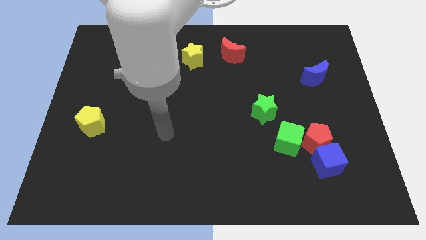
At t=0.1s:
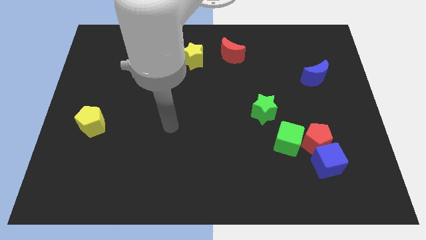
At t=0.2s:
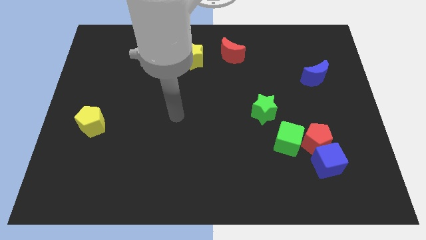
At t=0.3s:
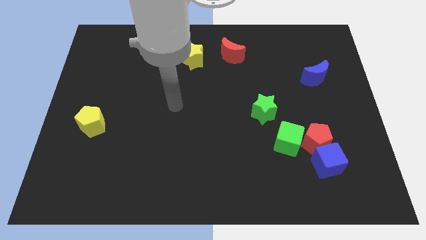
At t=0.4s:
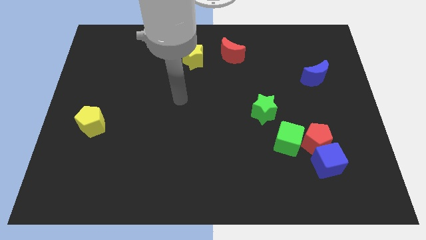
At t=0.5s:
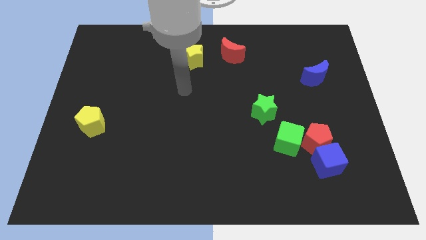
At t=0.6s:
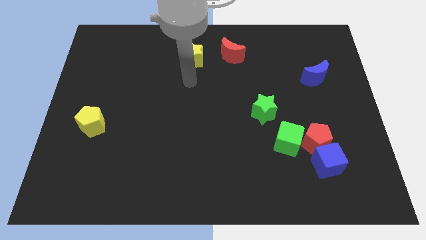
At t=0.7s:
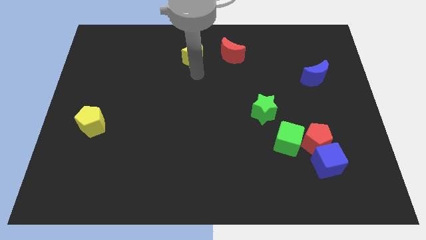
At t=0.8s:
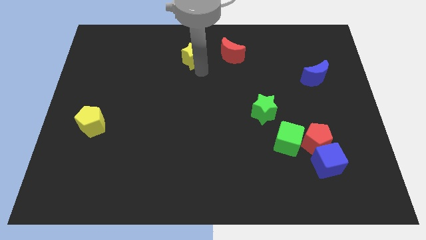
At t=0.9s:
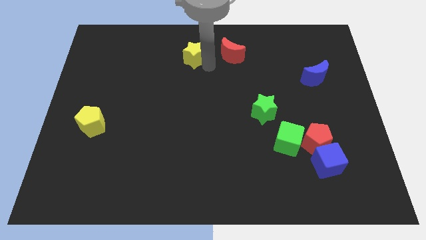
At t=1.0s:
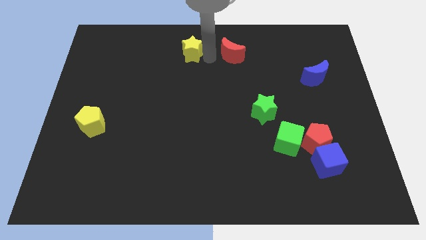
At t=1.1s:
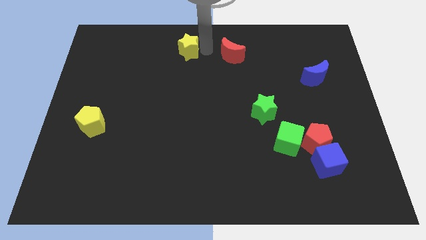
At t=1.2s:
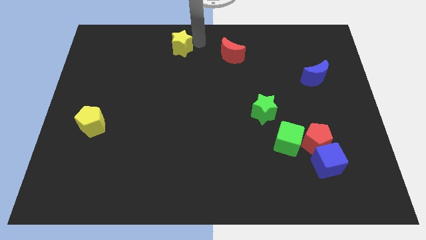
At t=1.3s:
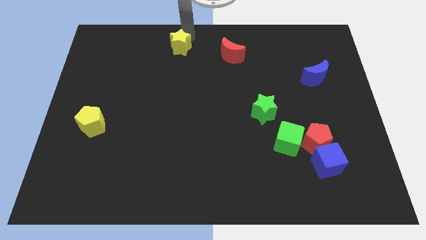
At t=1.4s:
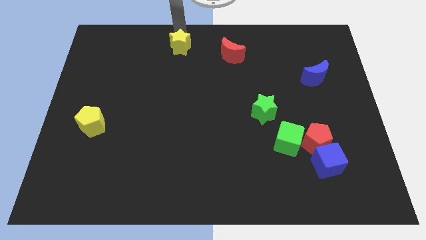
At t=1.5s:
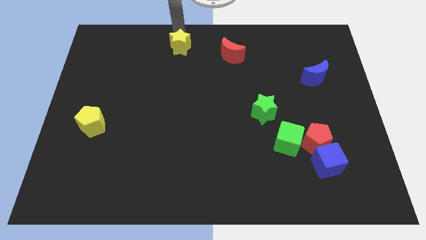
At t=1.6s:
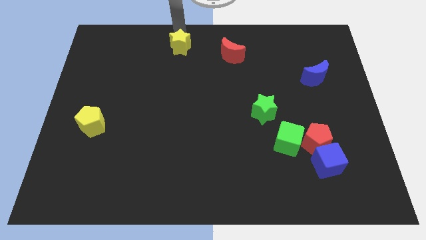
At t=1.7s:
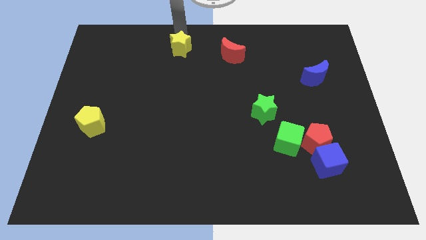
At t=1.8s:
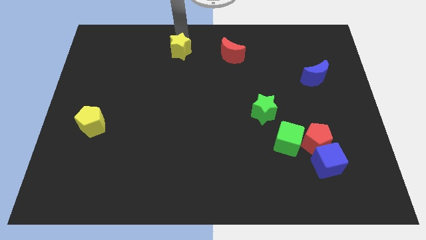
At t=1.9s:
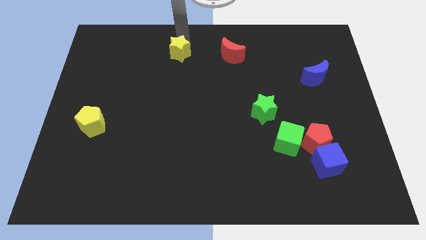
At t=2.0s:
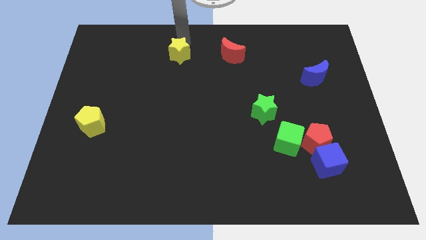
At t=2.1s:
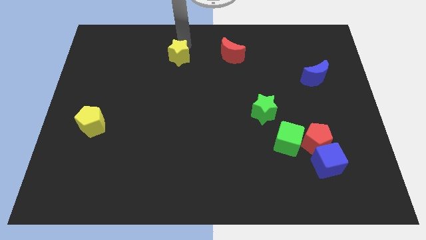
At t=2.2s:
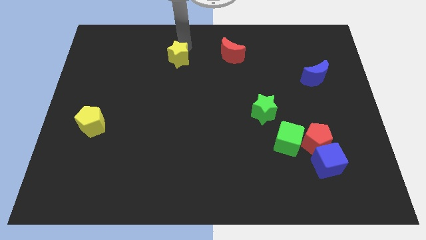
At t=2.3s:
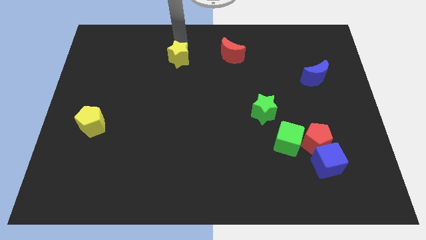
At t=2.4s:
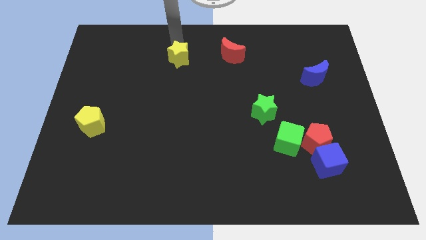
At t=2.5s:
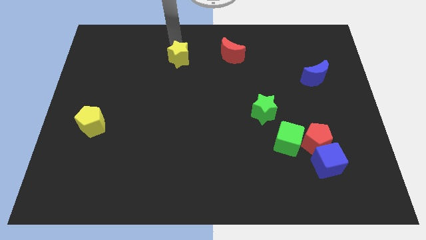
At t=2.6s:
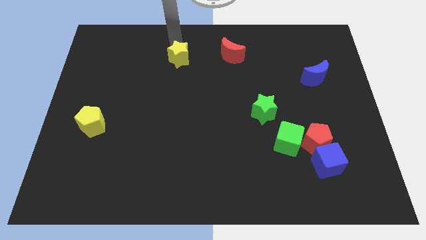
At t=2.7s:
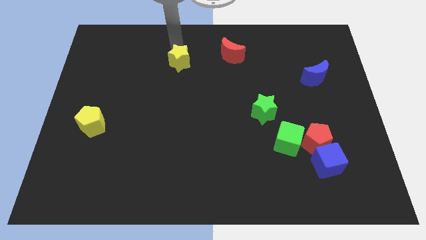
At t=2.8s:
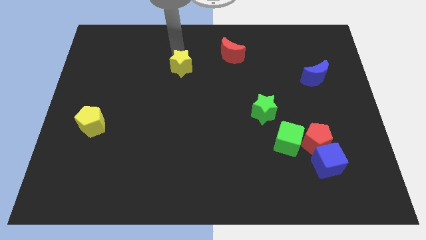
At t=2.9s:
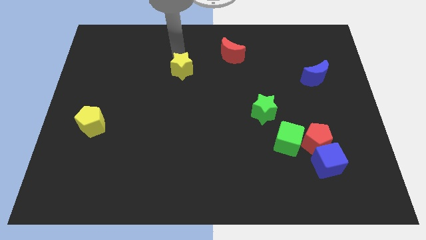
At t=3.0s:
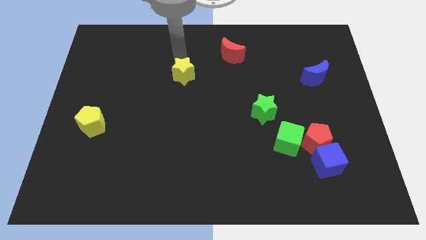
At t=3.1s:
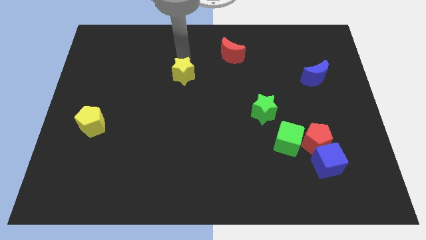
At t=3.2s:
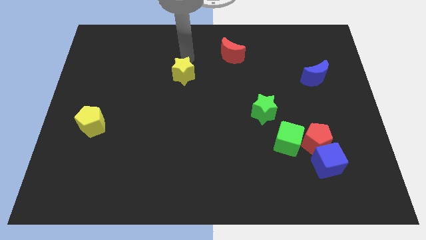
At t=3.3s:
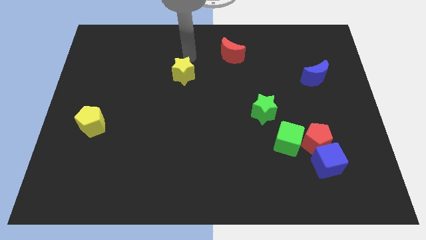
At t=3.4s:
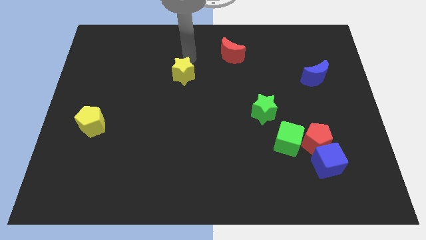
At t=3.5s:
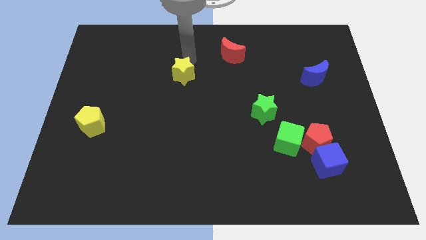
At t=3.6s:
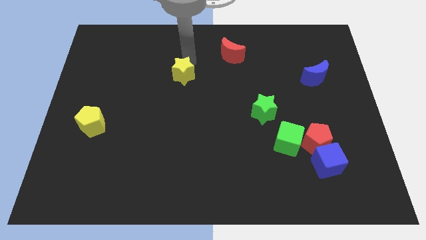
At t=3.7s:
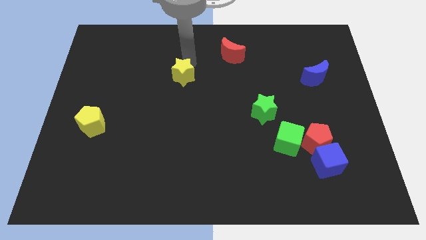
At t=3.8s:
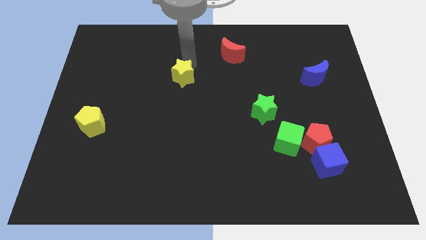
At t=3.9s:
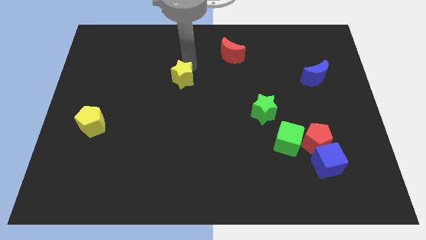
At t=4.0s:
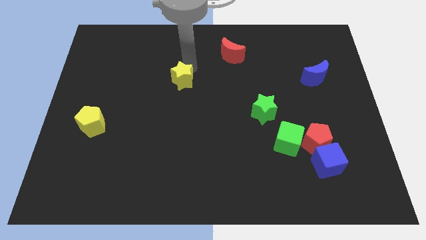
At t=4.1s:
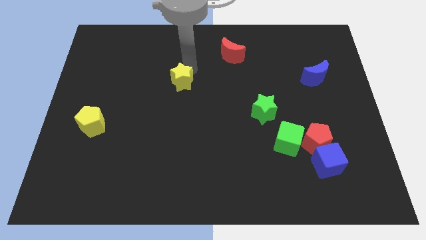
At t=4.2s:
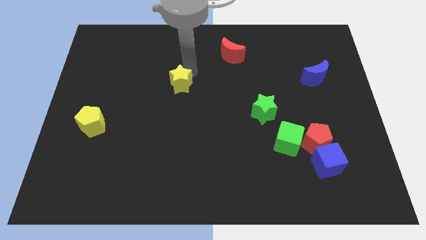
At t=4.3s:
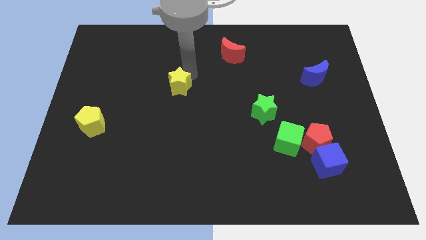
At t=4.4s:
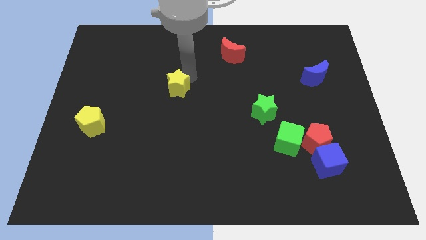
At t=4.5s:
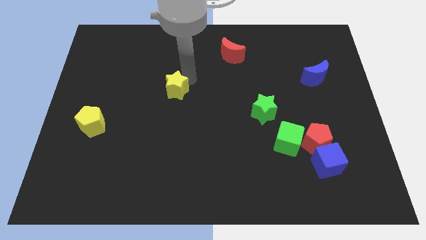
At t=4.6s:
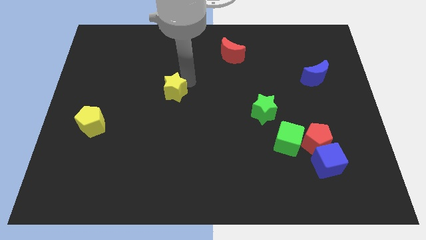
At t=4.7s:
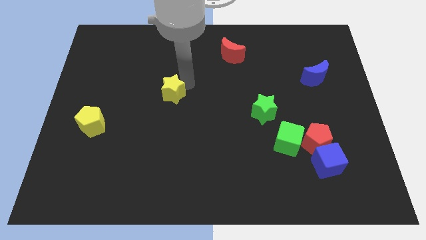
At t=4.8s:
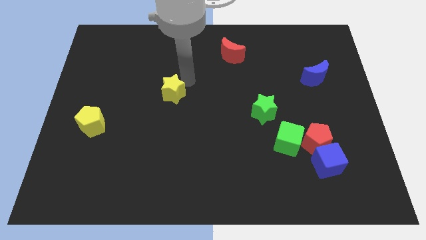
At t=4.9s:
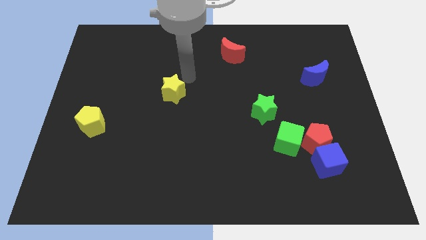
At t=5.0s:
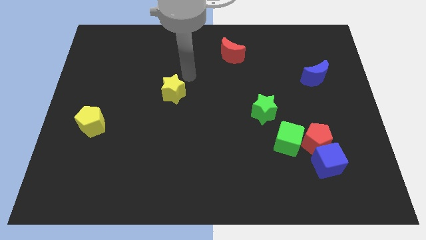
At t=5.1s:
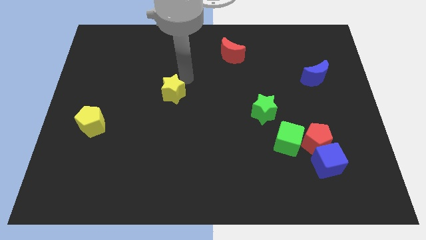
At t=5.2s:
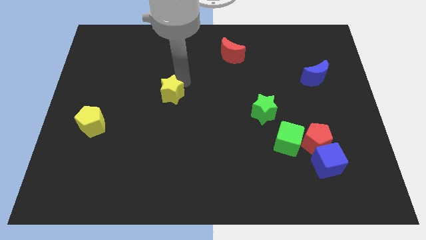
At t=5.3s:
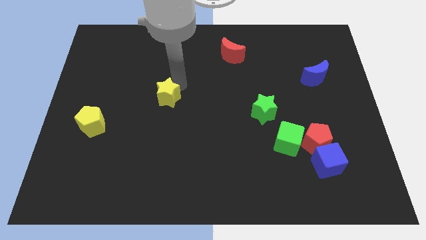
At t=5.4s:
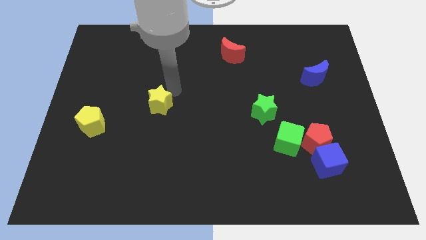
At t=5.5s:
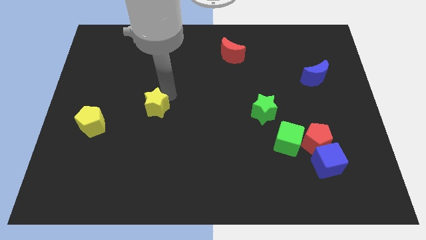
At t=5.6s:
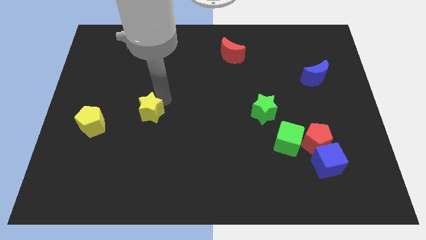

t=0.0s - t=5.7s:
move the yellow star to the right of the yellow pentagon

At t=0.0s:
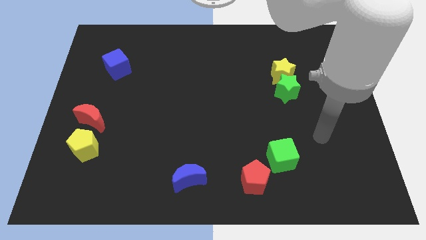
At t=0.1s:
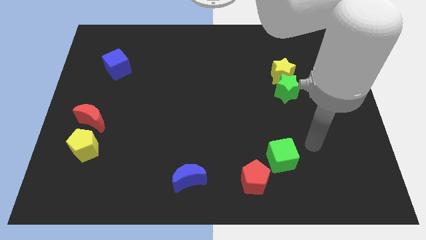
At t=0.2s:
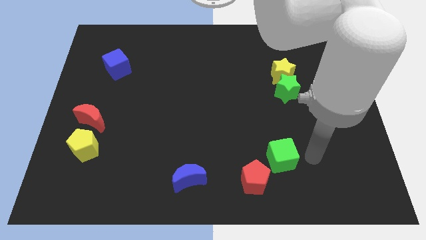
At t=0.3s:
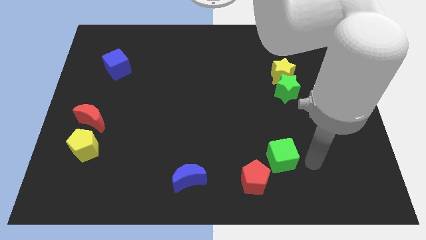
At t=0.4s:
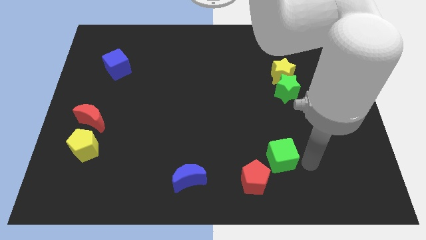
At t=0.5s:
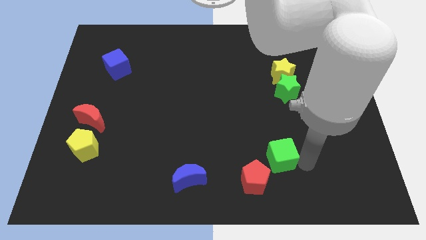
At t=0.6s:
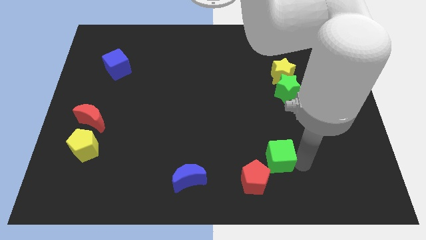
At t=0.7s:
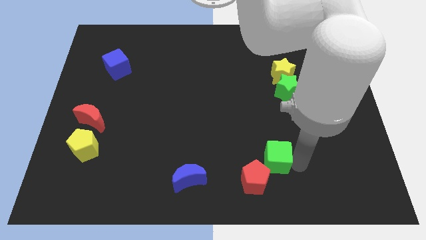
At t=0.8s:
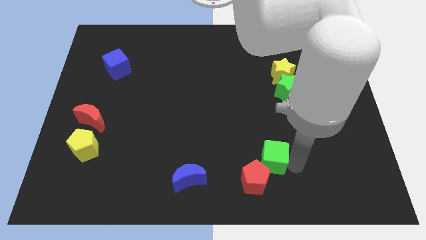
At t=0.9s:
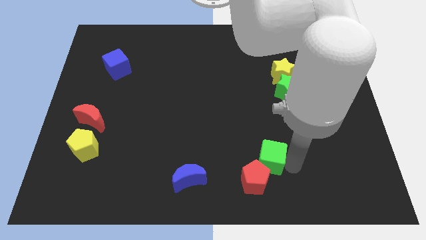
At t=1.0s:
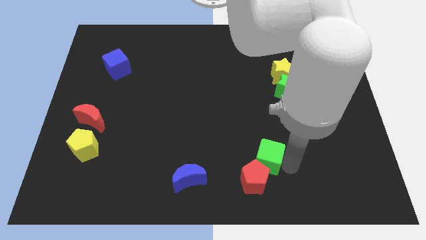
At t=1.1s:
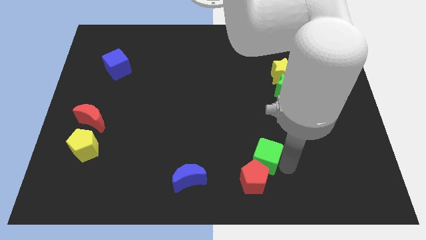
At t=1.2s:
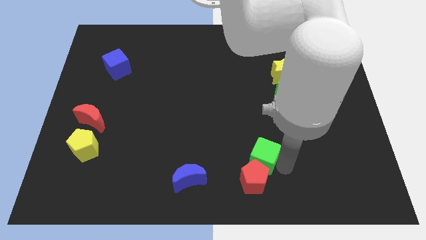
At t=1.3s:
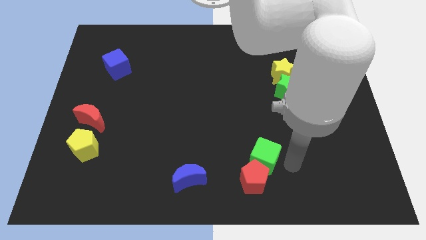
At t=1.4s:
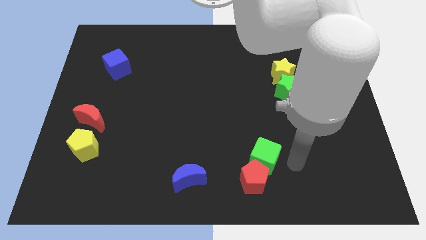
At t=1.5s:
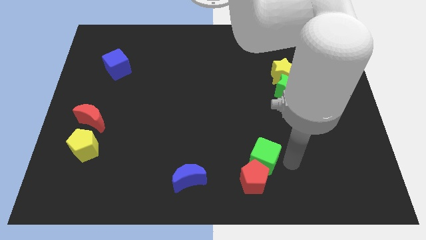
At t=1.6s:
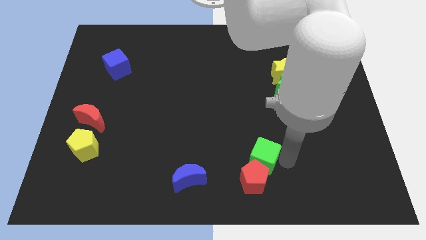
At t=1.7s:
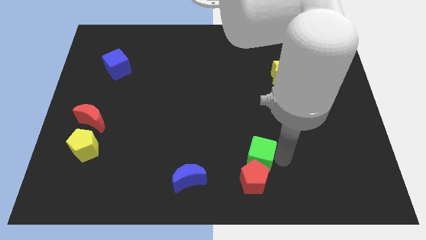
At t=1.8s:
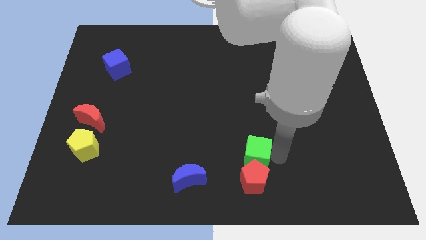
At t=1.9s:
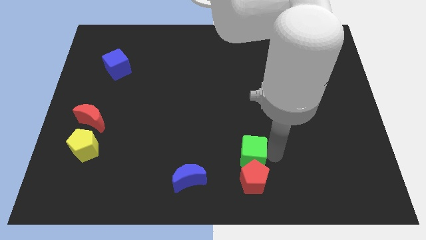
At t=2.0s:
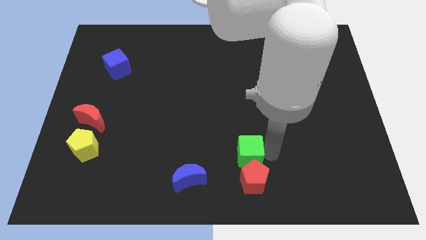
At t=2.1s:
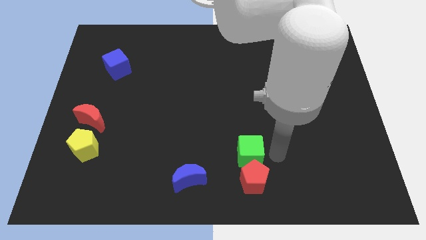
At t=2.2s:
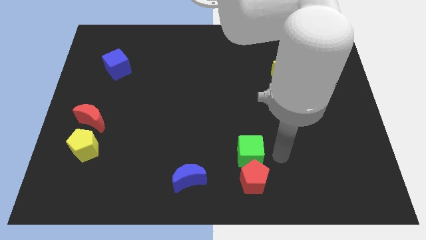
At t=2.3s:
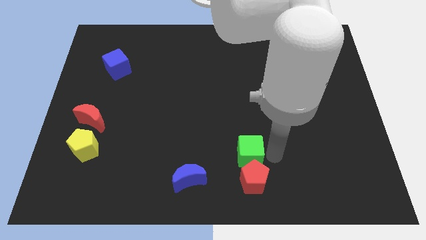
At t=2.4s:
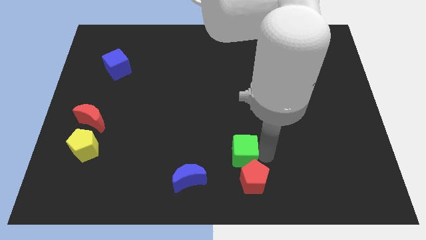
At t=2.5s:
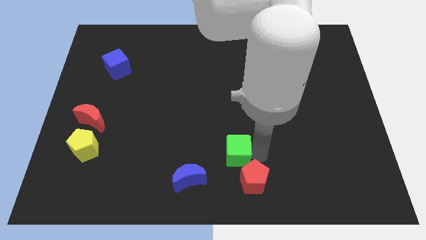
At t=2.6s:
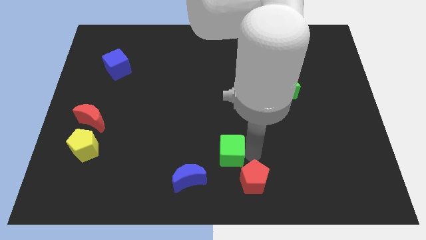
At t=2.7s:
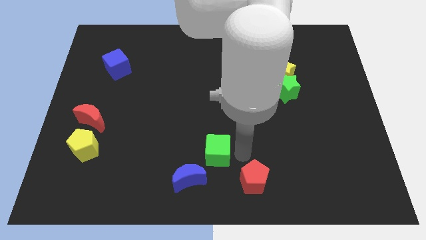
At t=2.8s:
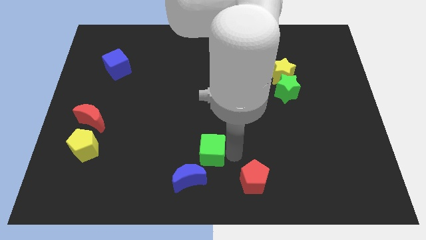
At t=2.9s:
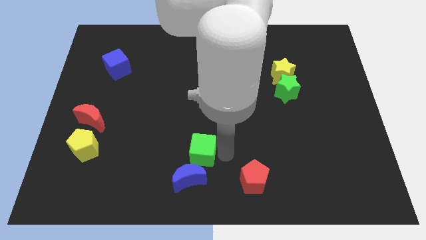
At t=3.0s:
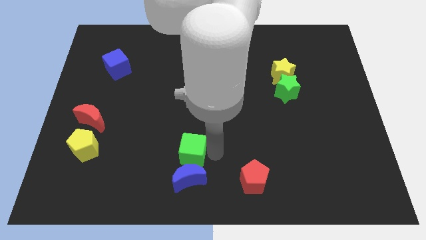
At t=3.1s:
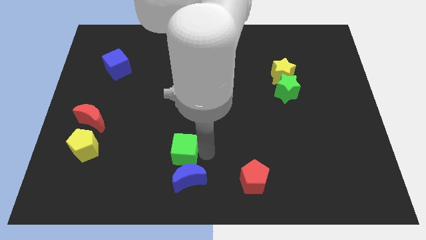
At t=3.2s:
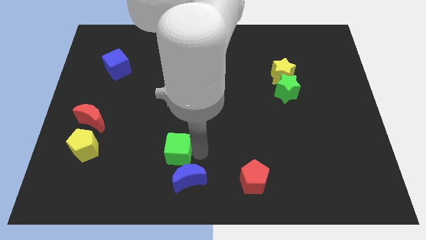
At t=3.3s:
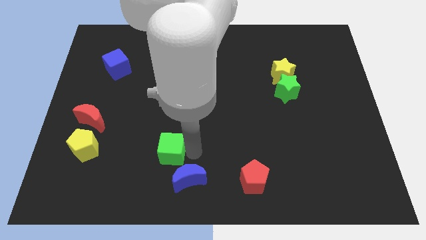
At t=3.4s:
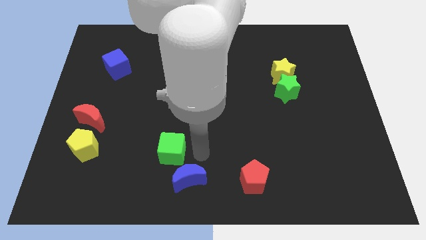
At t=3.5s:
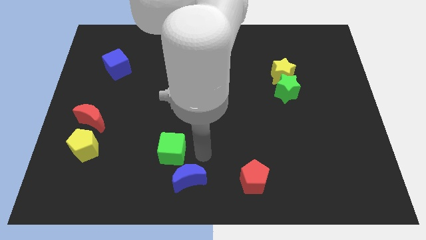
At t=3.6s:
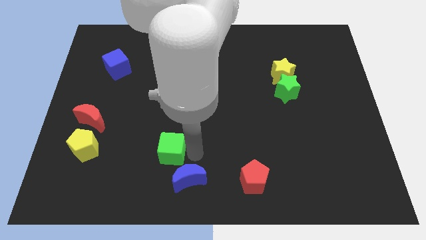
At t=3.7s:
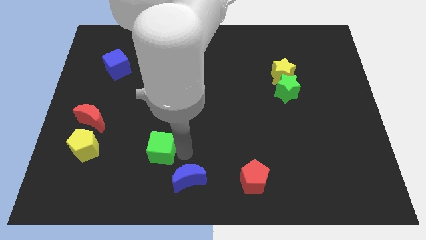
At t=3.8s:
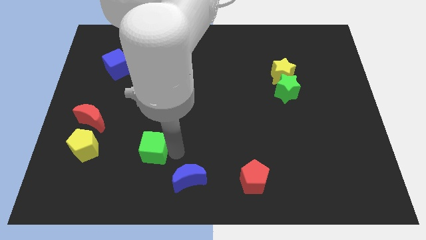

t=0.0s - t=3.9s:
put the green cube right of the yellow pentagon
